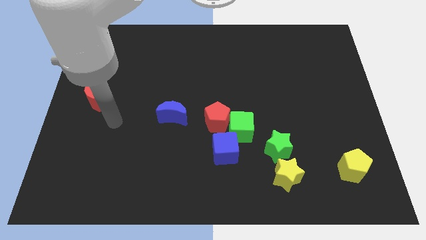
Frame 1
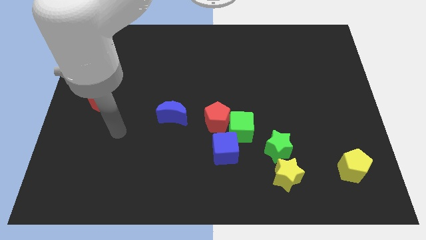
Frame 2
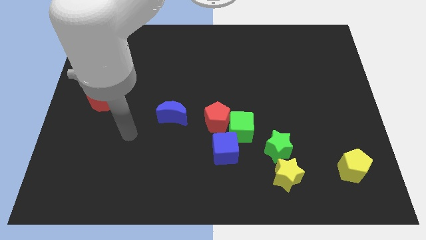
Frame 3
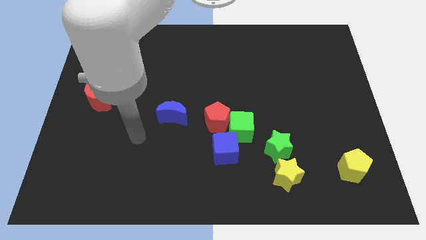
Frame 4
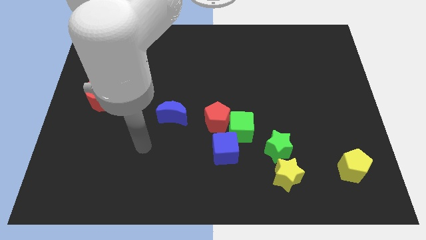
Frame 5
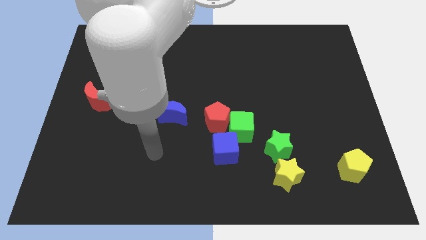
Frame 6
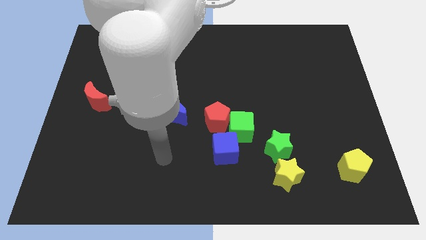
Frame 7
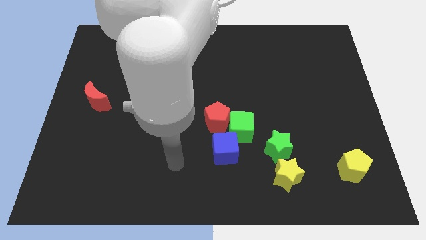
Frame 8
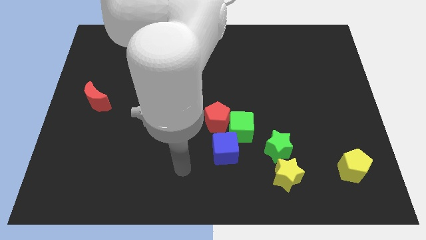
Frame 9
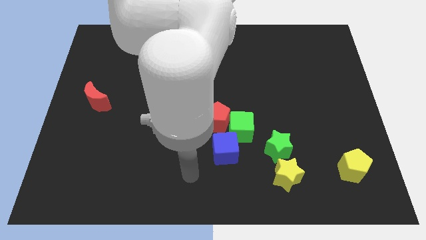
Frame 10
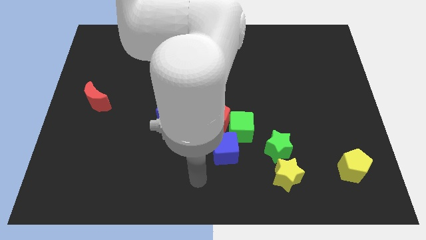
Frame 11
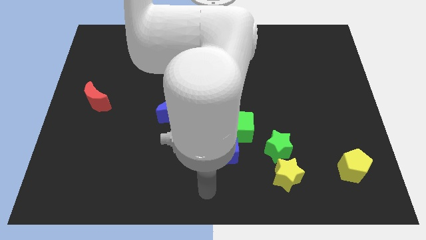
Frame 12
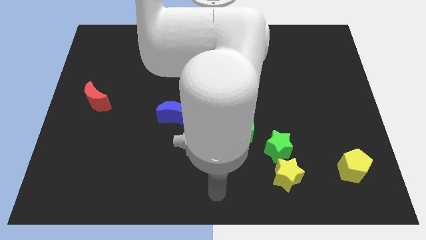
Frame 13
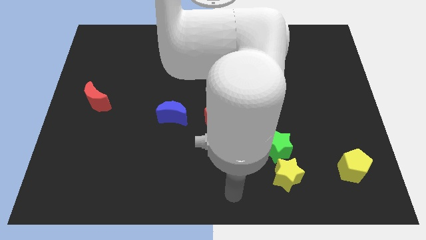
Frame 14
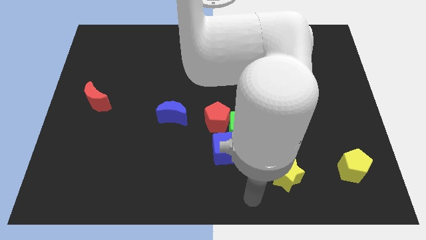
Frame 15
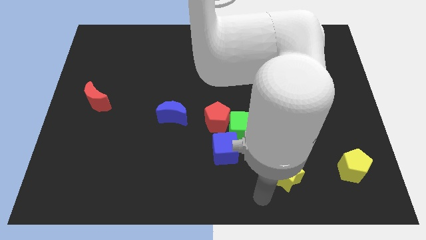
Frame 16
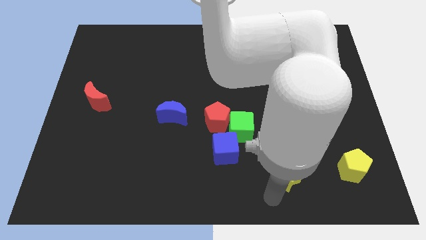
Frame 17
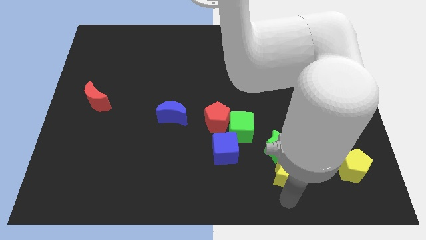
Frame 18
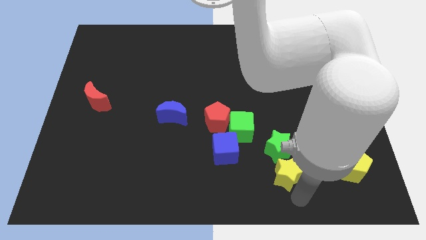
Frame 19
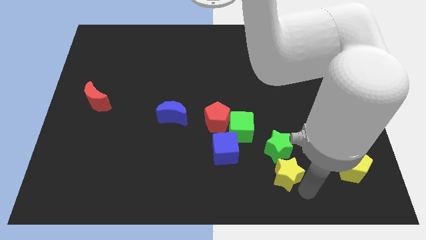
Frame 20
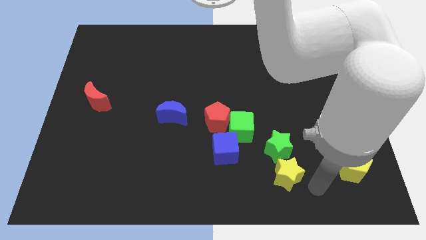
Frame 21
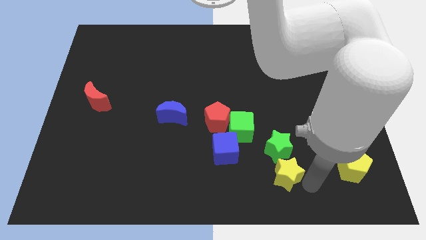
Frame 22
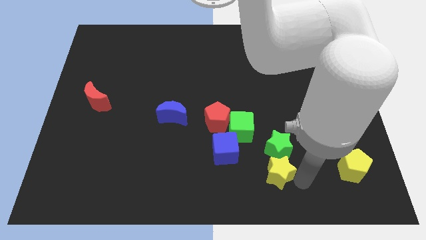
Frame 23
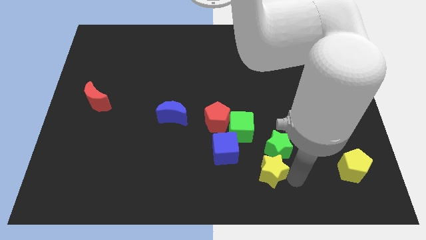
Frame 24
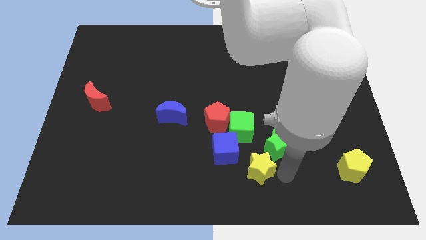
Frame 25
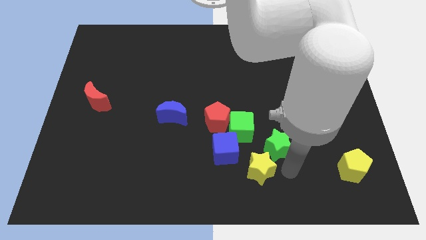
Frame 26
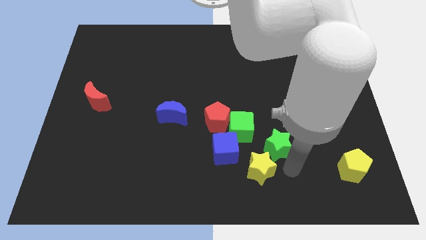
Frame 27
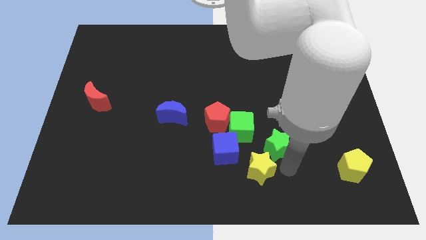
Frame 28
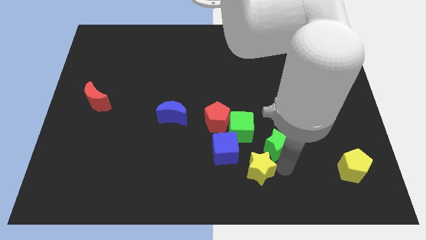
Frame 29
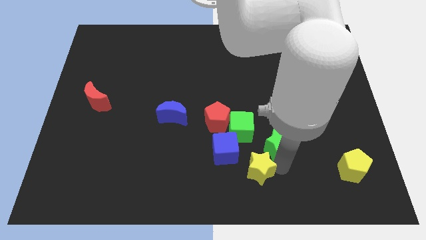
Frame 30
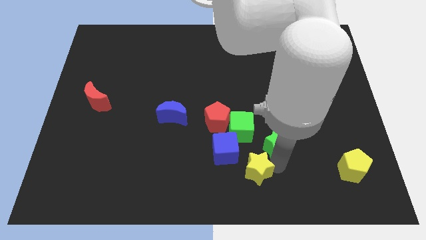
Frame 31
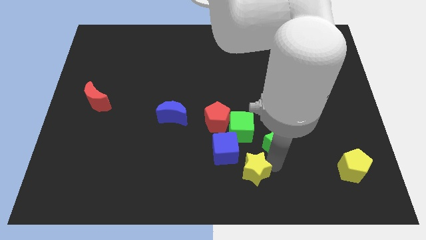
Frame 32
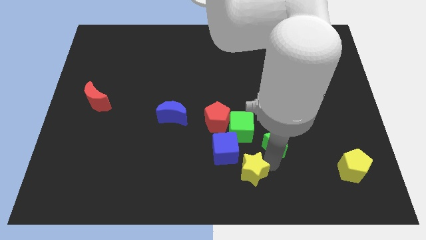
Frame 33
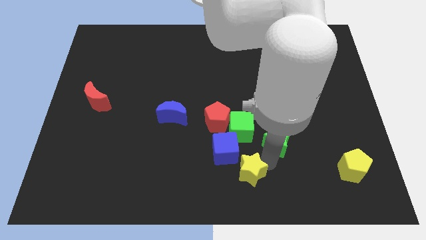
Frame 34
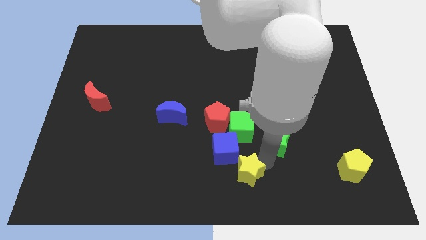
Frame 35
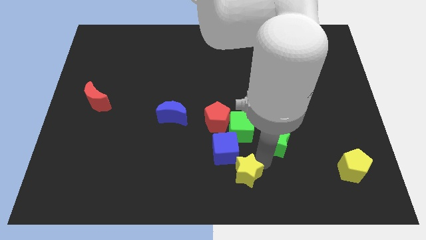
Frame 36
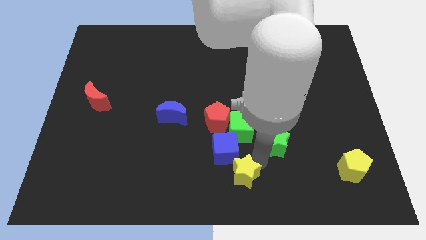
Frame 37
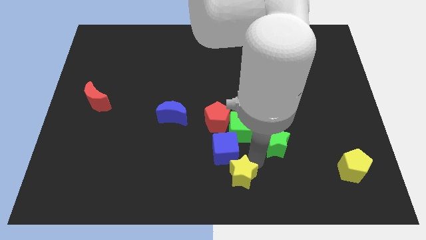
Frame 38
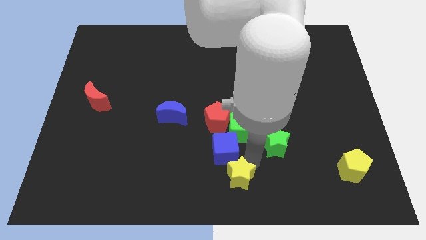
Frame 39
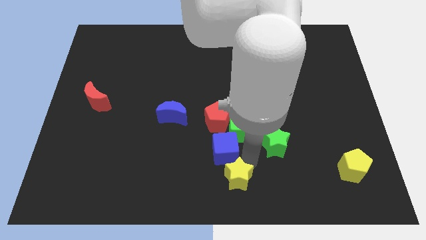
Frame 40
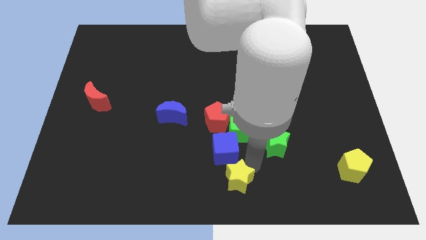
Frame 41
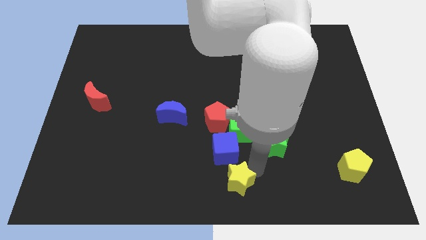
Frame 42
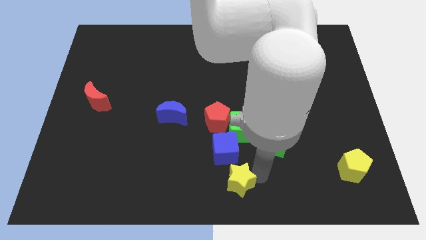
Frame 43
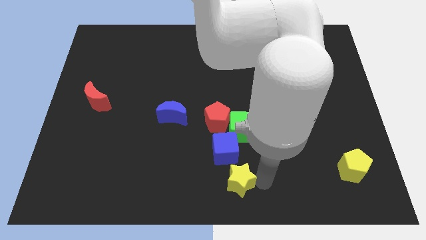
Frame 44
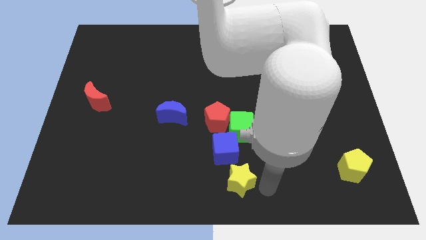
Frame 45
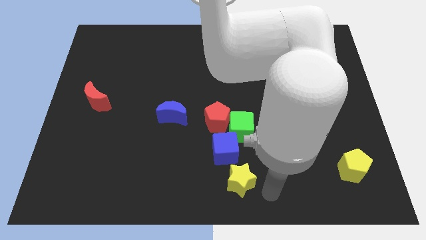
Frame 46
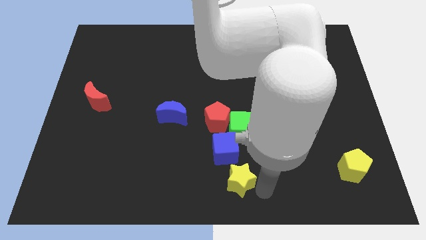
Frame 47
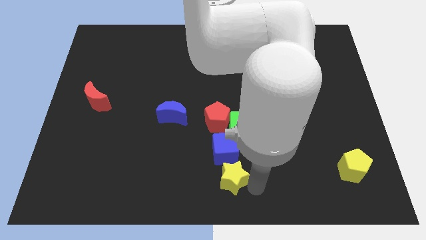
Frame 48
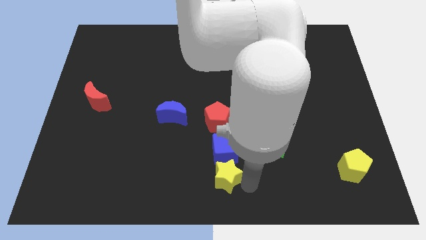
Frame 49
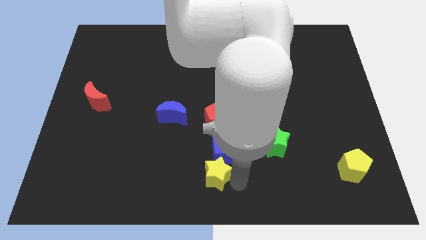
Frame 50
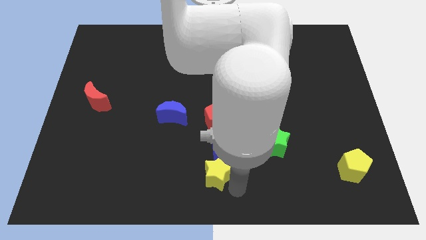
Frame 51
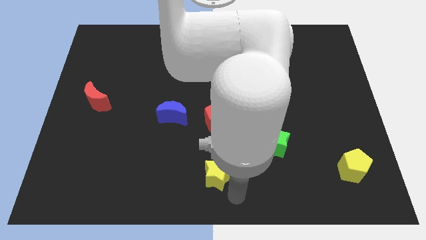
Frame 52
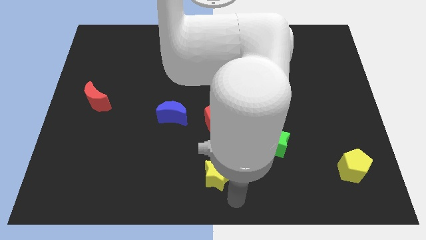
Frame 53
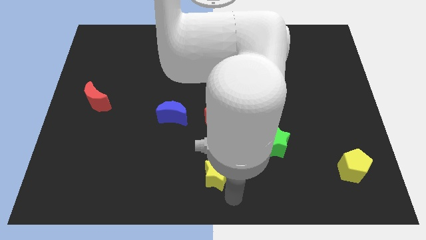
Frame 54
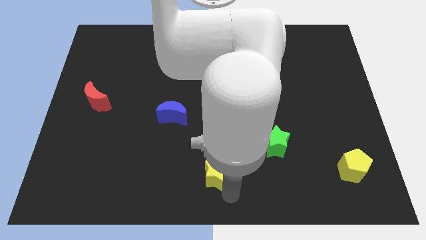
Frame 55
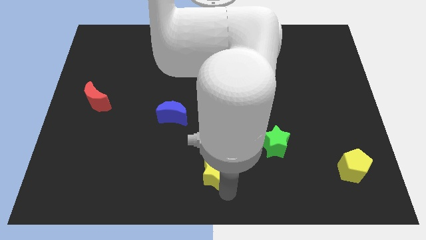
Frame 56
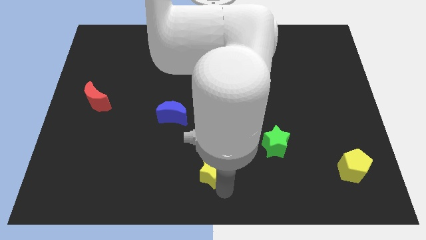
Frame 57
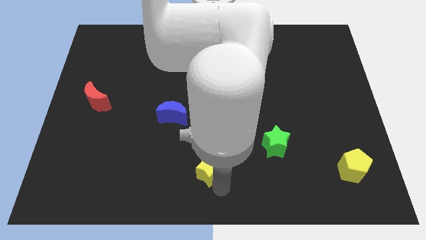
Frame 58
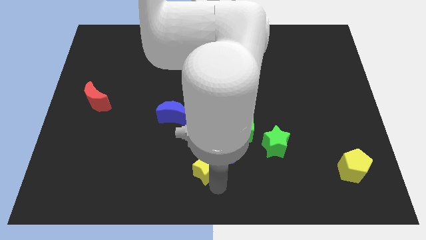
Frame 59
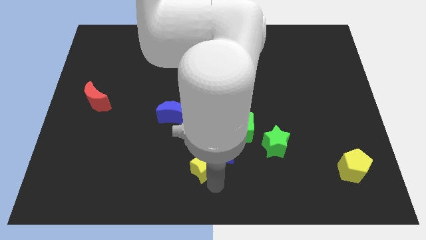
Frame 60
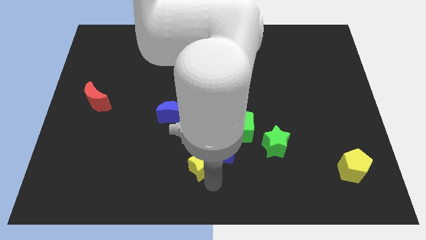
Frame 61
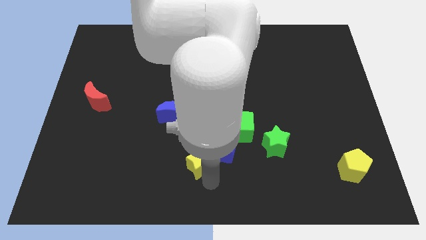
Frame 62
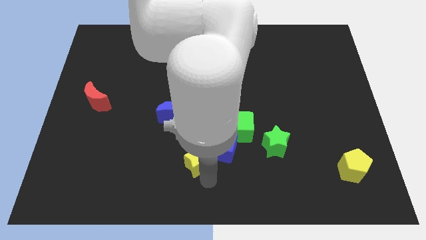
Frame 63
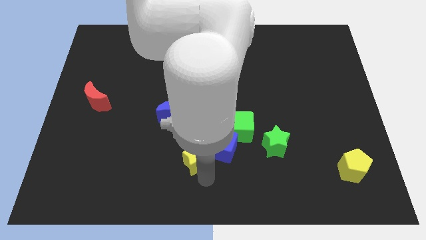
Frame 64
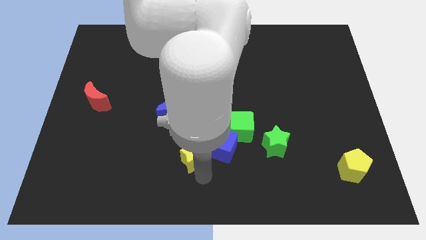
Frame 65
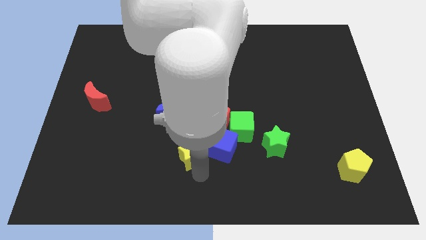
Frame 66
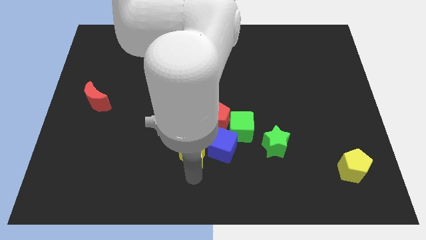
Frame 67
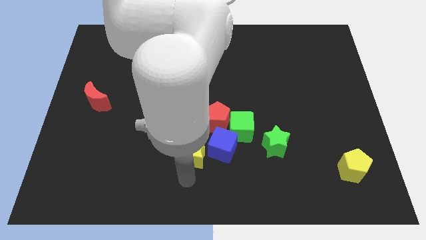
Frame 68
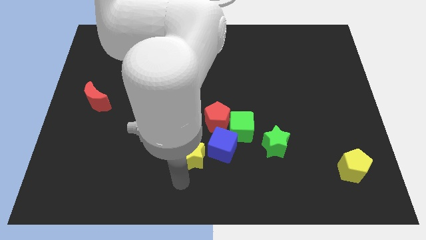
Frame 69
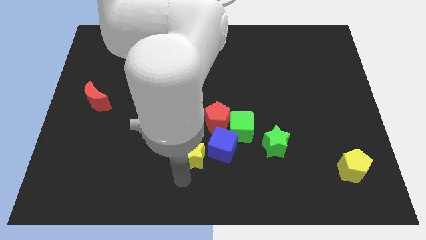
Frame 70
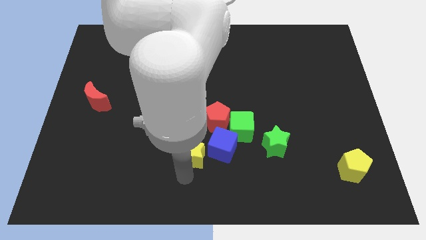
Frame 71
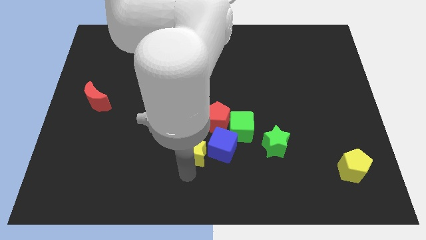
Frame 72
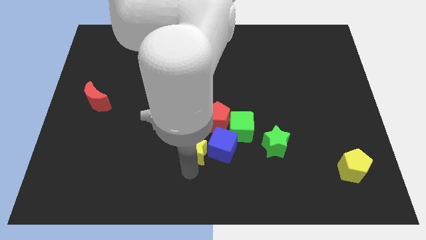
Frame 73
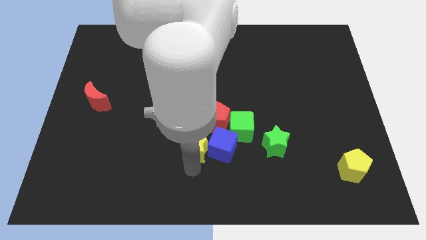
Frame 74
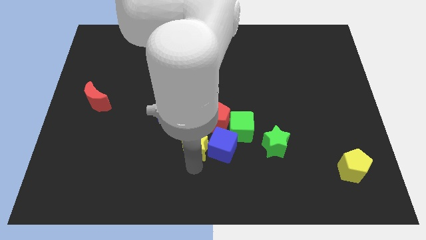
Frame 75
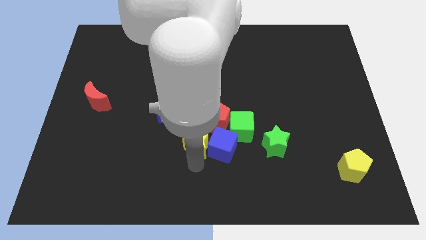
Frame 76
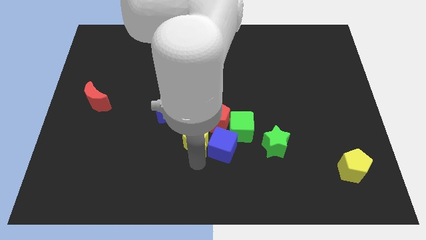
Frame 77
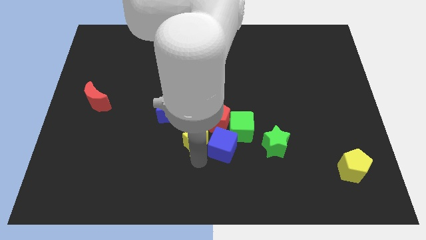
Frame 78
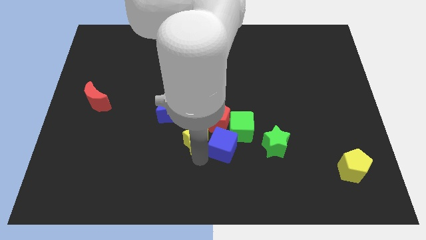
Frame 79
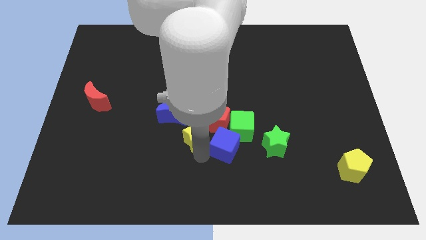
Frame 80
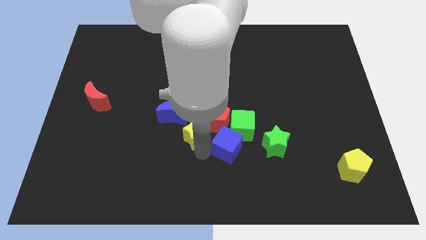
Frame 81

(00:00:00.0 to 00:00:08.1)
put the yellow star close to the red pentagon
